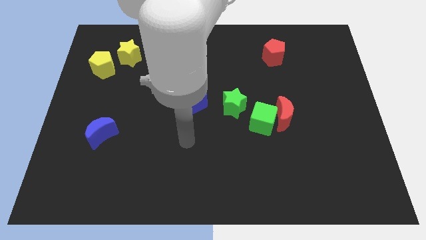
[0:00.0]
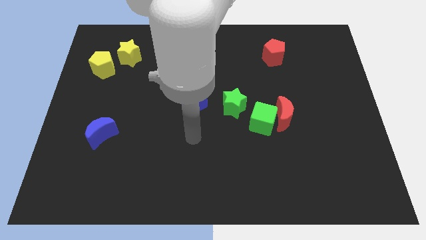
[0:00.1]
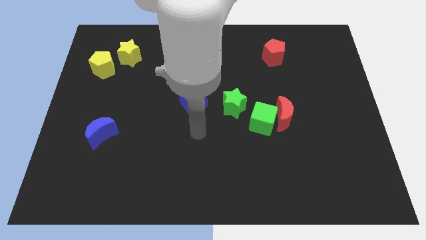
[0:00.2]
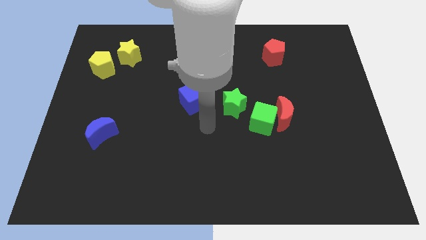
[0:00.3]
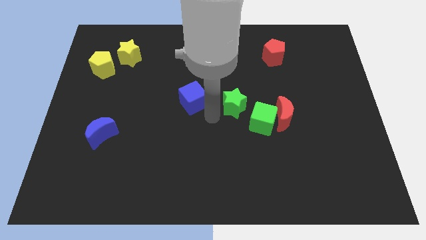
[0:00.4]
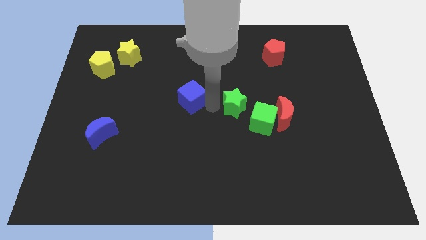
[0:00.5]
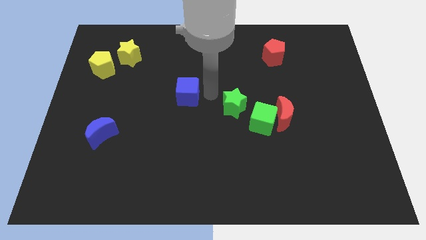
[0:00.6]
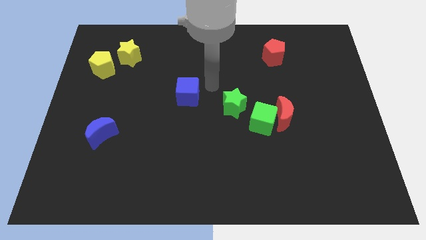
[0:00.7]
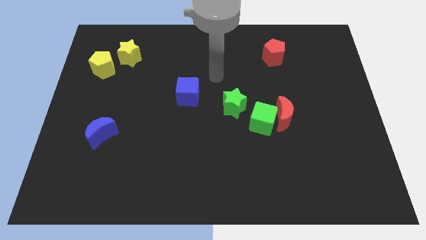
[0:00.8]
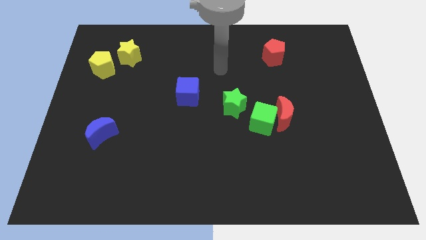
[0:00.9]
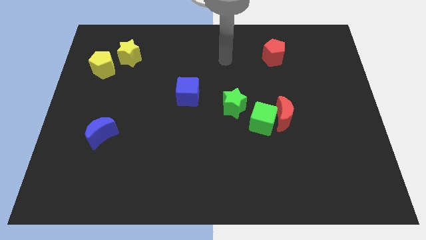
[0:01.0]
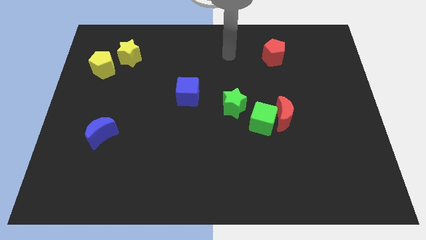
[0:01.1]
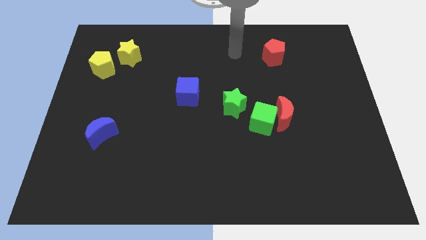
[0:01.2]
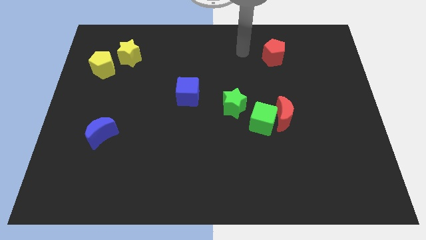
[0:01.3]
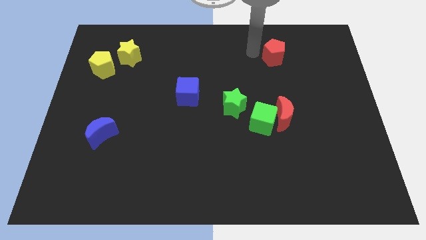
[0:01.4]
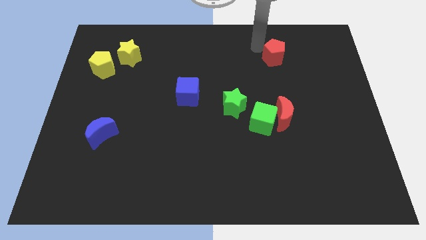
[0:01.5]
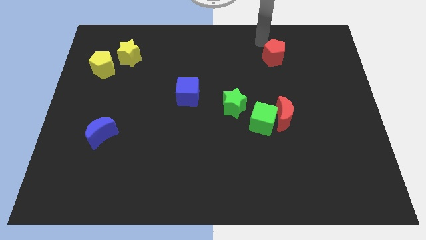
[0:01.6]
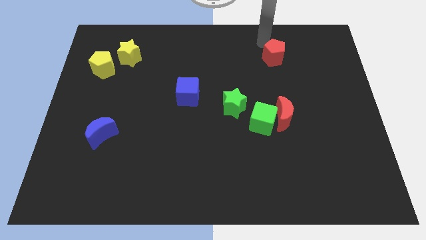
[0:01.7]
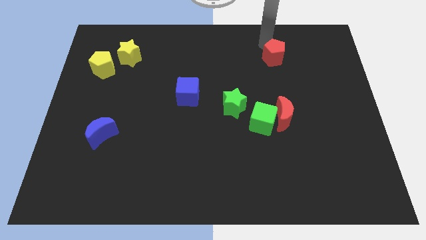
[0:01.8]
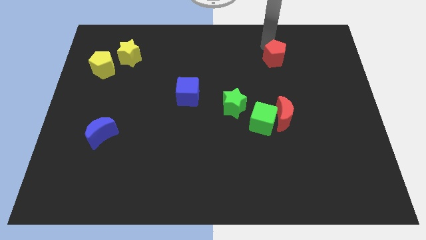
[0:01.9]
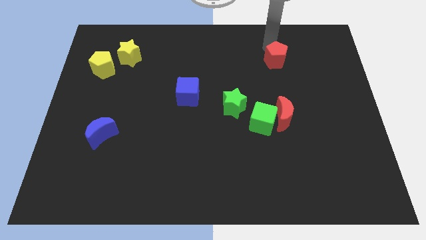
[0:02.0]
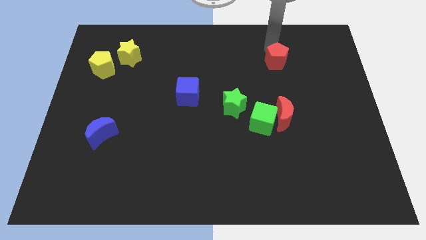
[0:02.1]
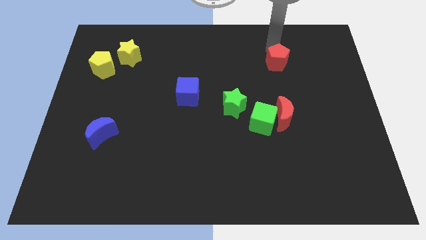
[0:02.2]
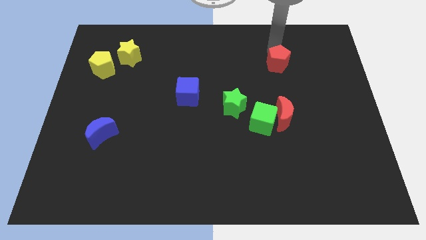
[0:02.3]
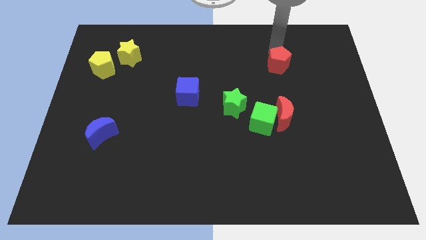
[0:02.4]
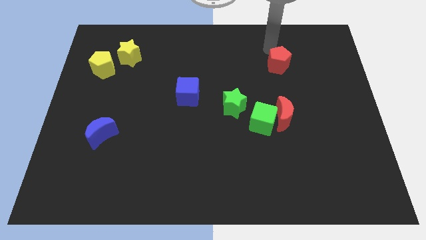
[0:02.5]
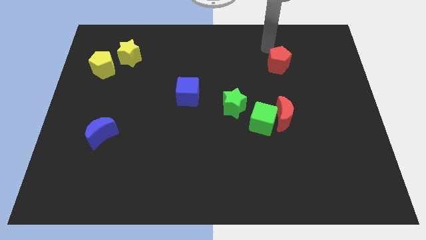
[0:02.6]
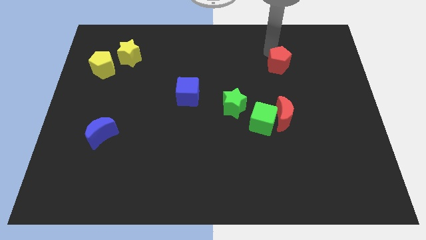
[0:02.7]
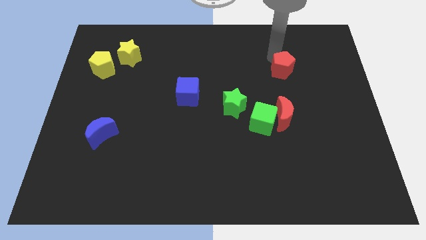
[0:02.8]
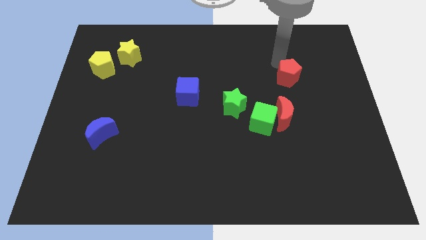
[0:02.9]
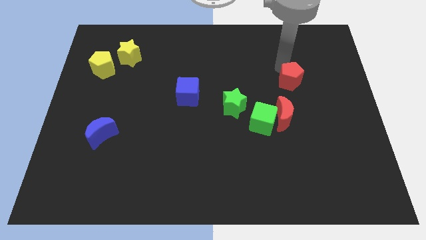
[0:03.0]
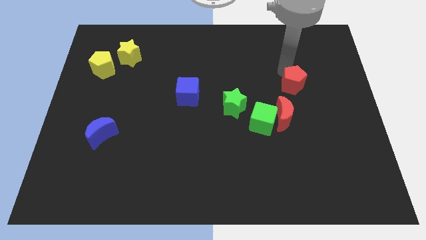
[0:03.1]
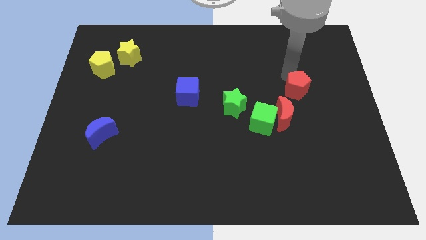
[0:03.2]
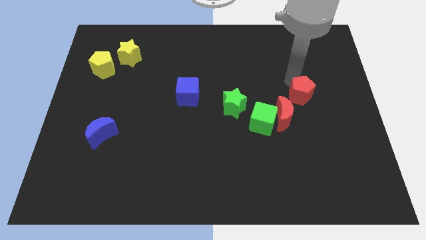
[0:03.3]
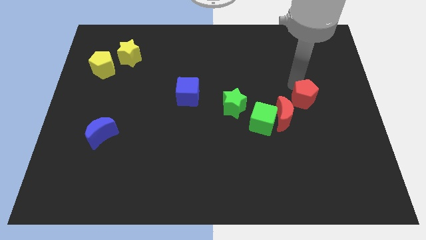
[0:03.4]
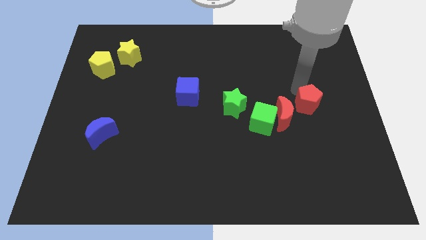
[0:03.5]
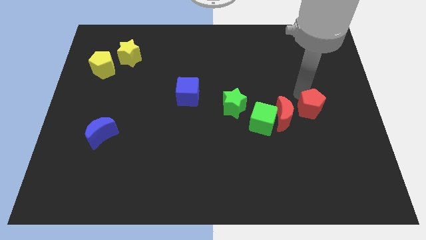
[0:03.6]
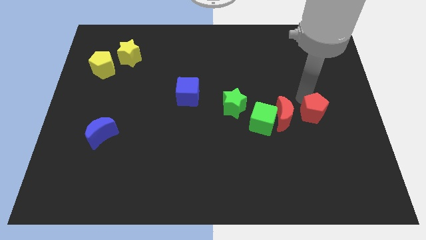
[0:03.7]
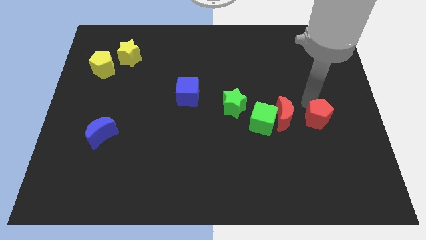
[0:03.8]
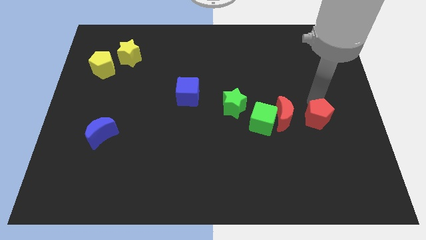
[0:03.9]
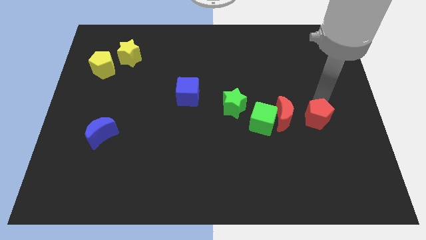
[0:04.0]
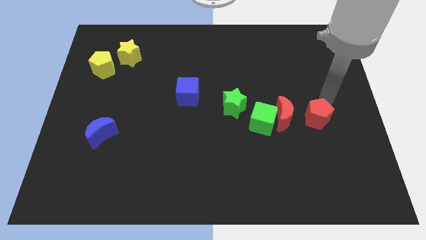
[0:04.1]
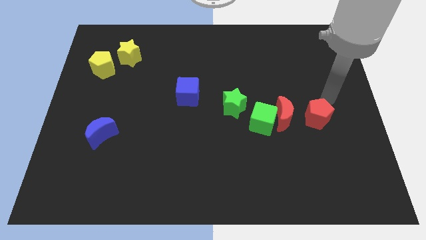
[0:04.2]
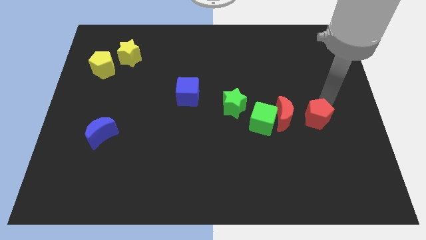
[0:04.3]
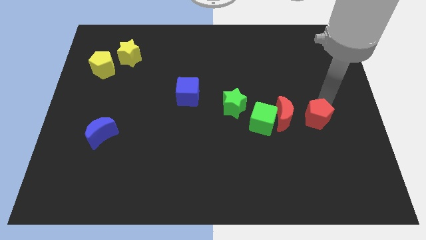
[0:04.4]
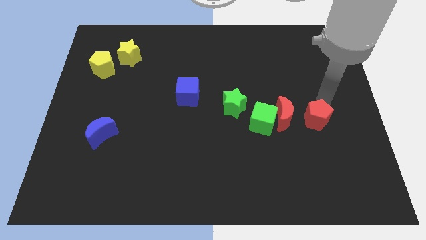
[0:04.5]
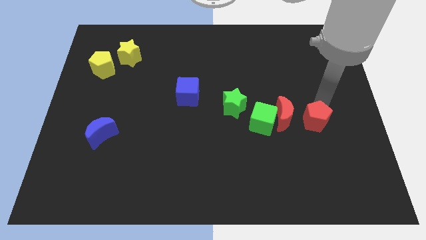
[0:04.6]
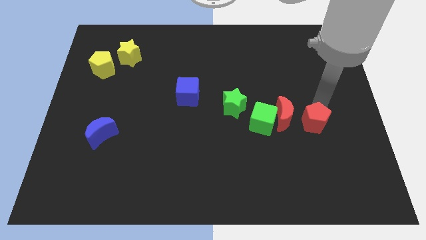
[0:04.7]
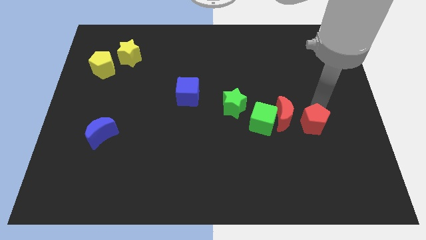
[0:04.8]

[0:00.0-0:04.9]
slide the red pentagon down

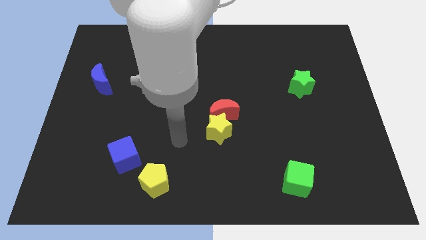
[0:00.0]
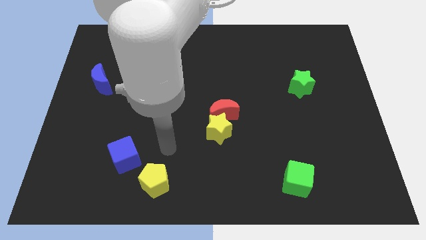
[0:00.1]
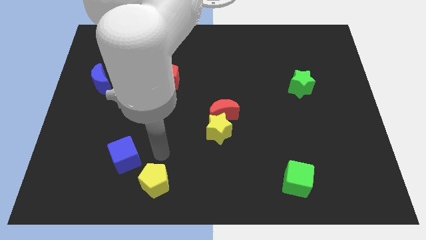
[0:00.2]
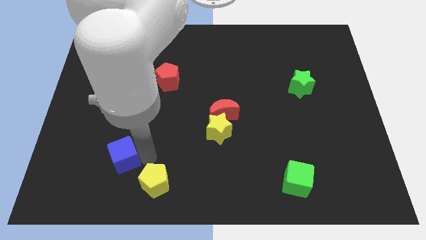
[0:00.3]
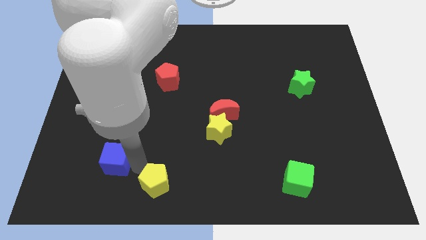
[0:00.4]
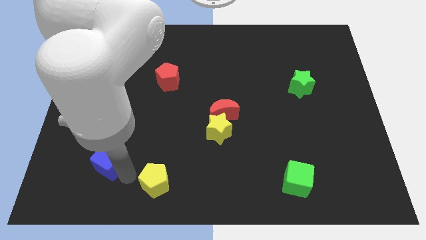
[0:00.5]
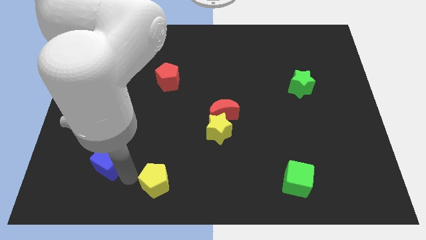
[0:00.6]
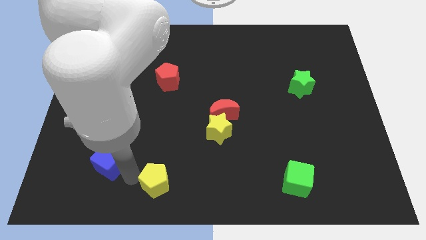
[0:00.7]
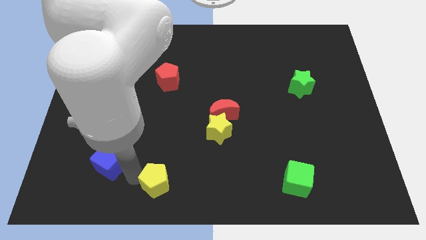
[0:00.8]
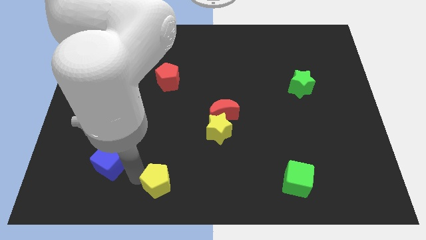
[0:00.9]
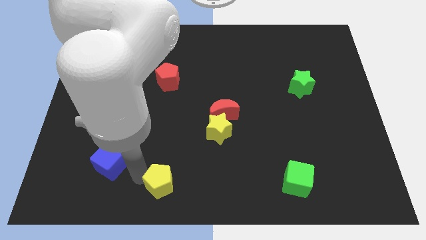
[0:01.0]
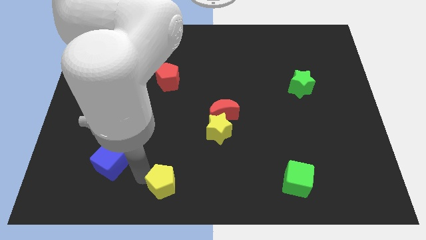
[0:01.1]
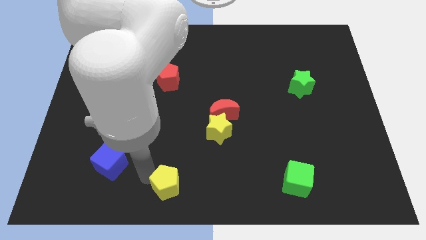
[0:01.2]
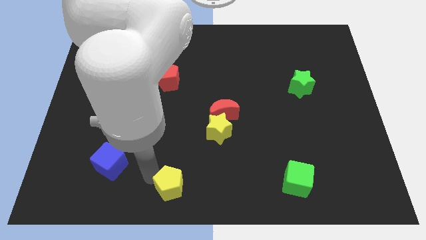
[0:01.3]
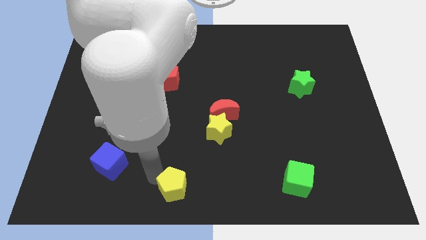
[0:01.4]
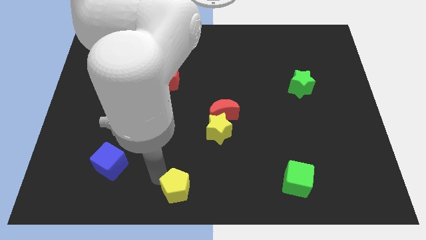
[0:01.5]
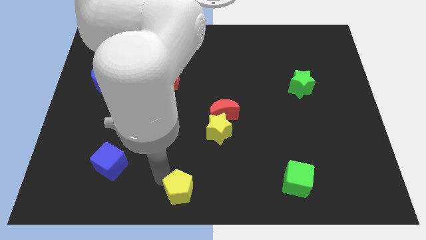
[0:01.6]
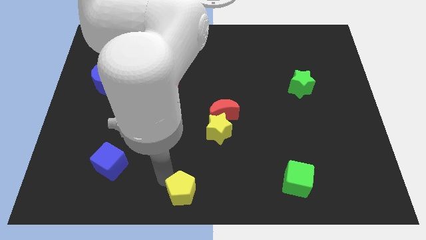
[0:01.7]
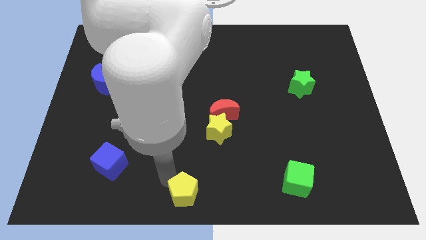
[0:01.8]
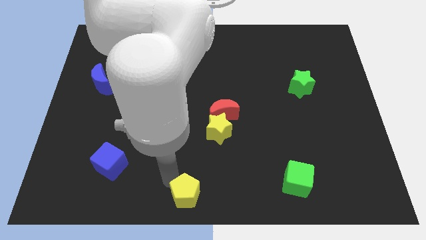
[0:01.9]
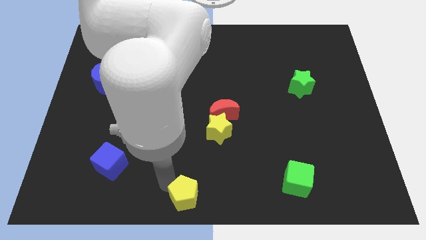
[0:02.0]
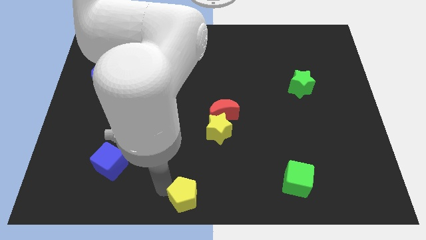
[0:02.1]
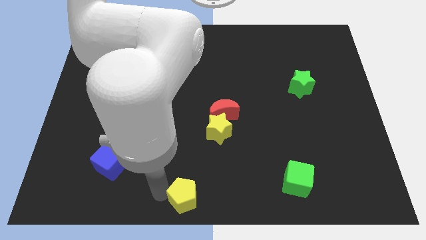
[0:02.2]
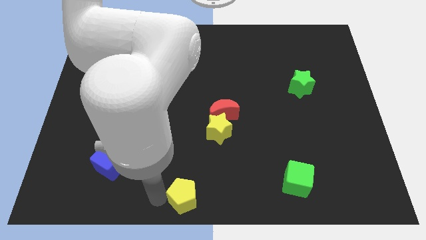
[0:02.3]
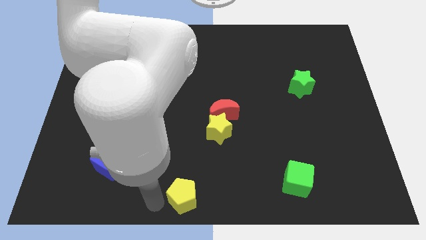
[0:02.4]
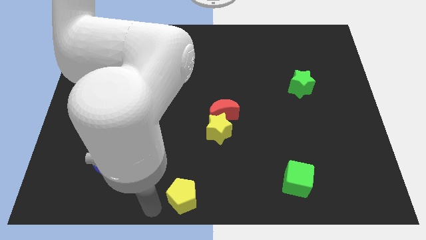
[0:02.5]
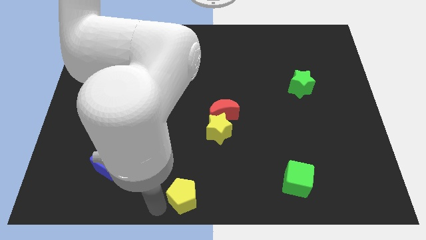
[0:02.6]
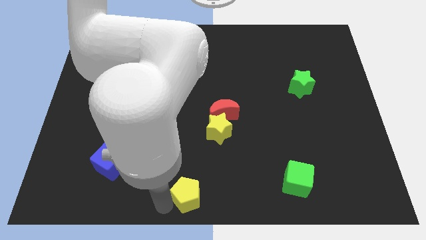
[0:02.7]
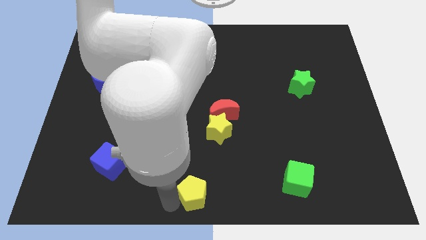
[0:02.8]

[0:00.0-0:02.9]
move the yellow pentagon slightly right

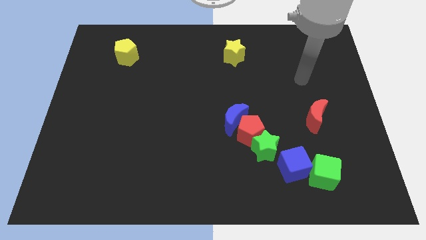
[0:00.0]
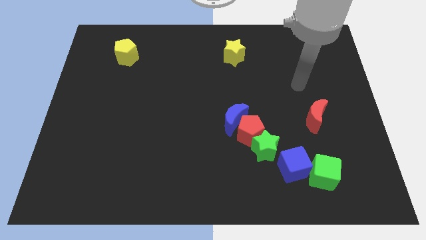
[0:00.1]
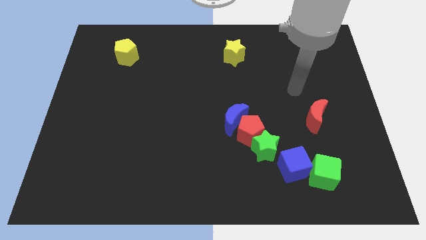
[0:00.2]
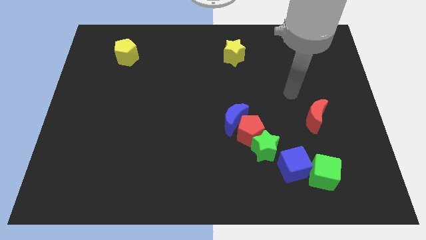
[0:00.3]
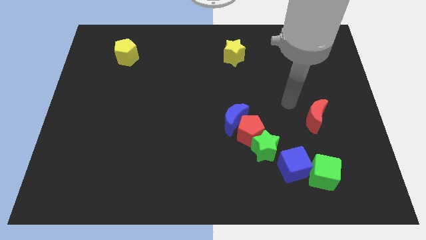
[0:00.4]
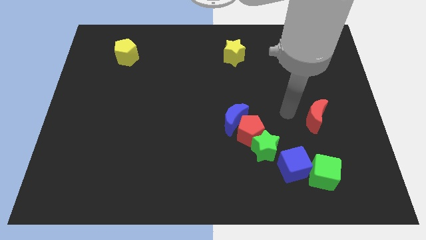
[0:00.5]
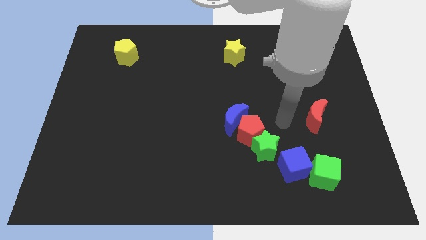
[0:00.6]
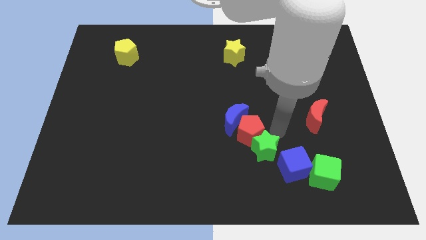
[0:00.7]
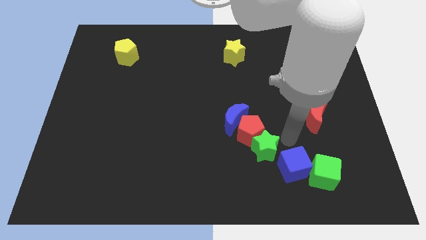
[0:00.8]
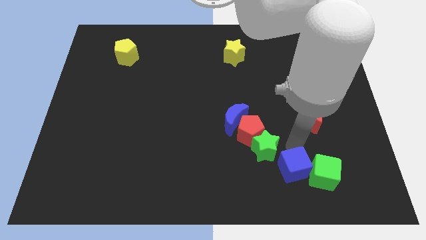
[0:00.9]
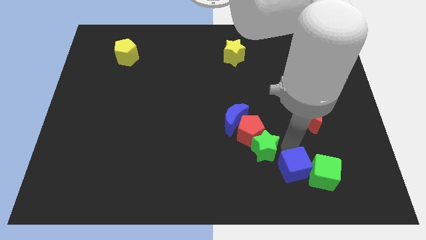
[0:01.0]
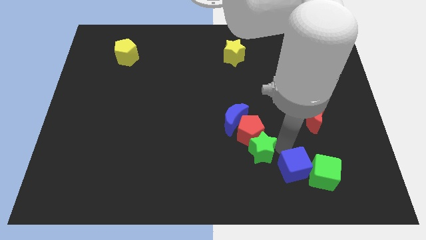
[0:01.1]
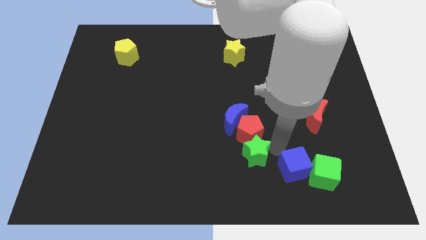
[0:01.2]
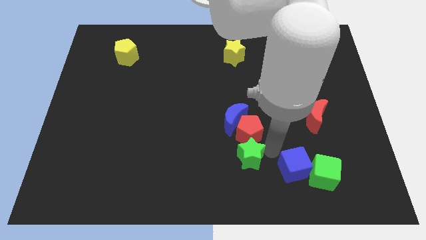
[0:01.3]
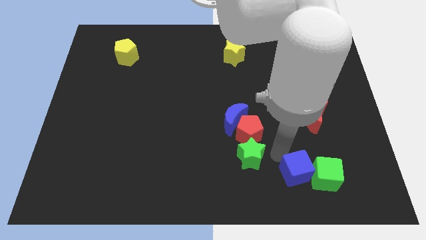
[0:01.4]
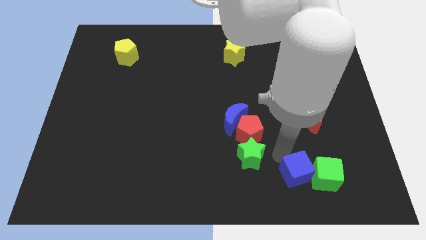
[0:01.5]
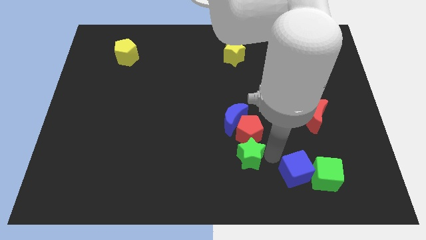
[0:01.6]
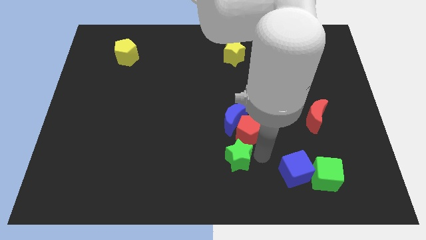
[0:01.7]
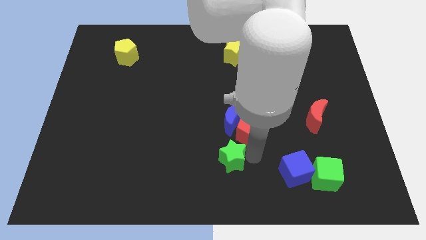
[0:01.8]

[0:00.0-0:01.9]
move the green star somewhat left
